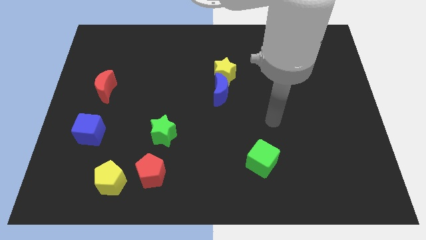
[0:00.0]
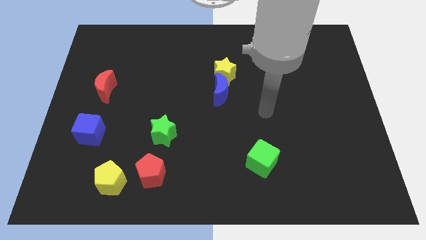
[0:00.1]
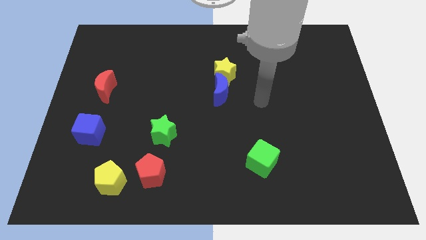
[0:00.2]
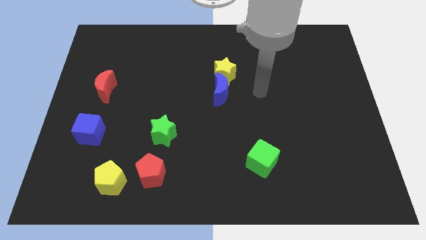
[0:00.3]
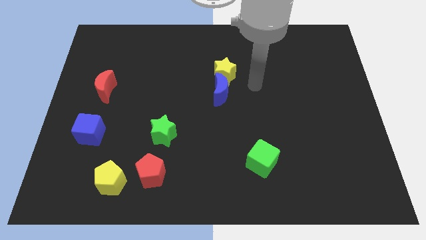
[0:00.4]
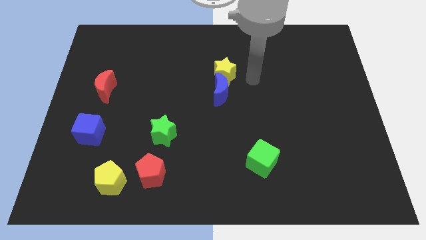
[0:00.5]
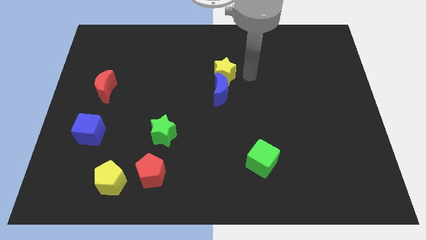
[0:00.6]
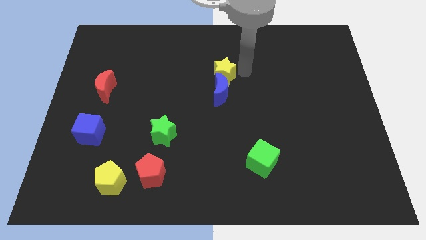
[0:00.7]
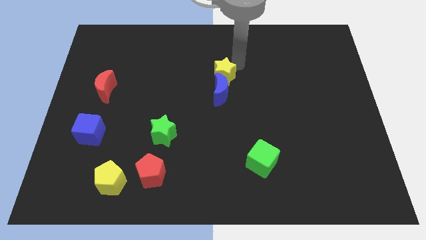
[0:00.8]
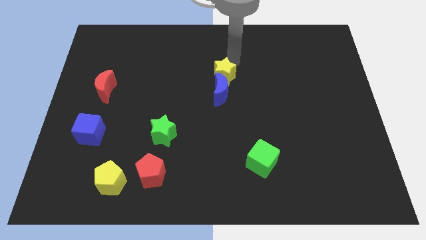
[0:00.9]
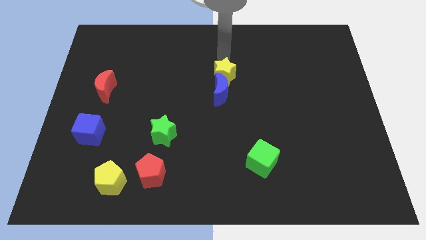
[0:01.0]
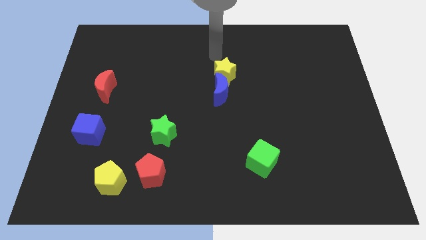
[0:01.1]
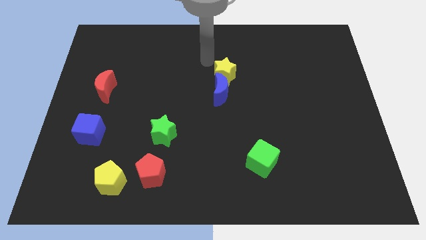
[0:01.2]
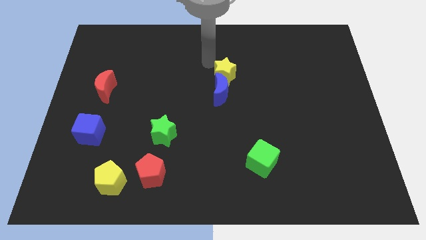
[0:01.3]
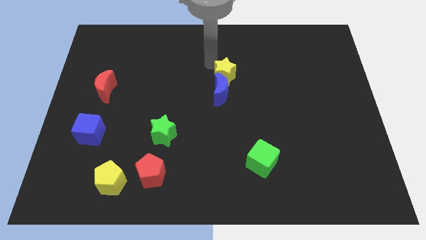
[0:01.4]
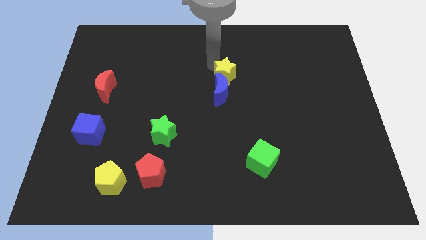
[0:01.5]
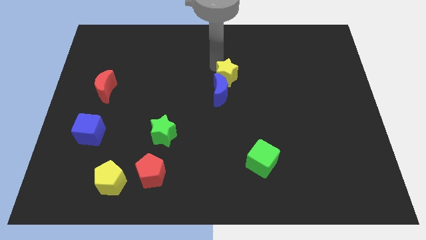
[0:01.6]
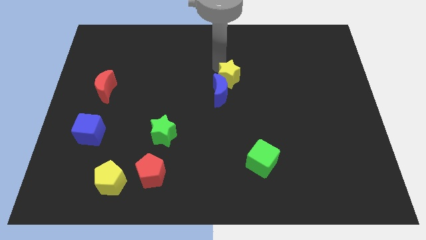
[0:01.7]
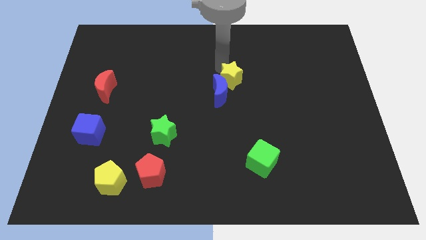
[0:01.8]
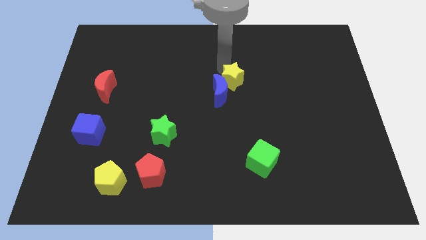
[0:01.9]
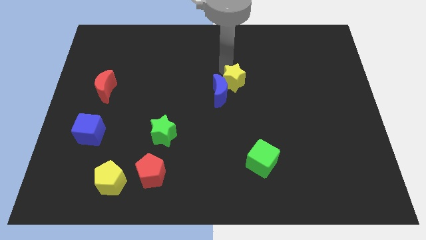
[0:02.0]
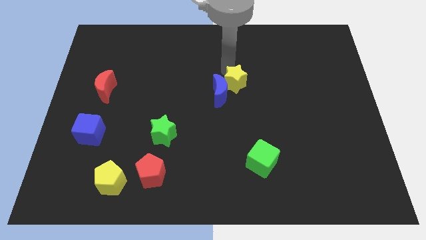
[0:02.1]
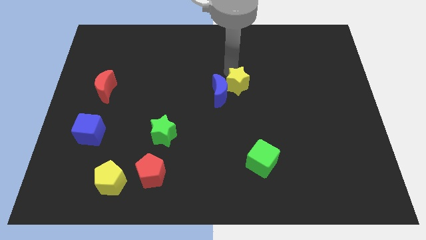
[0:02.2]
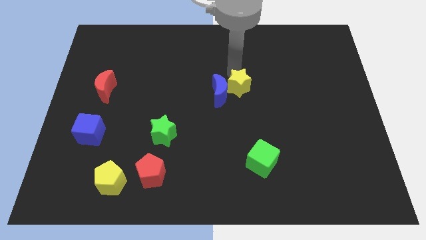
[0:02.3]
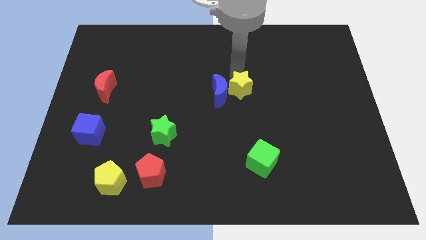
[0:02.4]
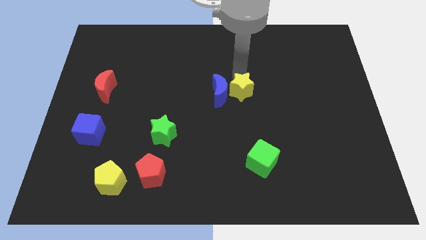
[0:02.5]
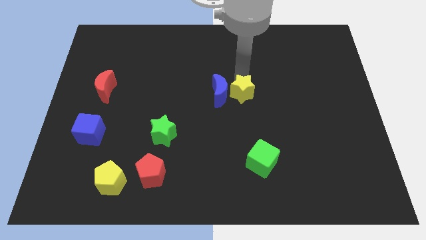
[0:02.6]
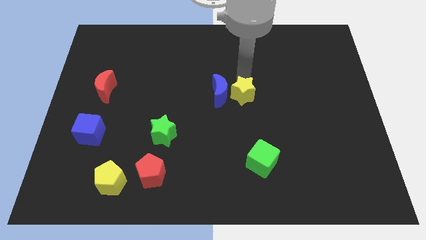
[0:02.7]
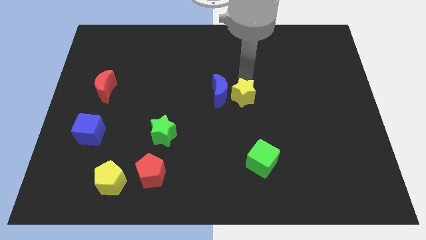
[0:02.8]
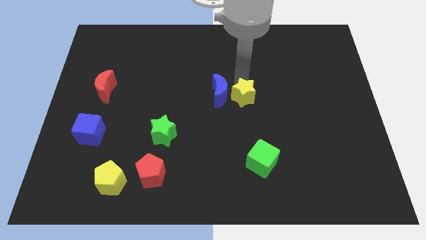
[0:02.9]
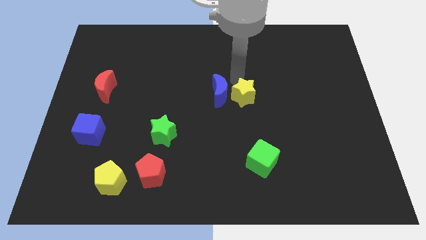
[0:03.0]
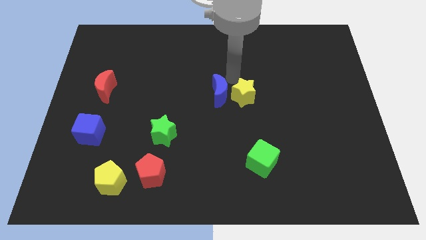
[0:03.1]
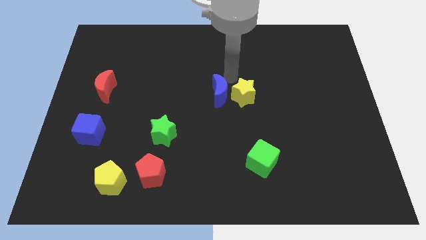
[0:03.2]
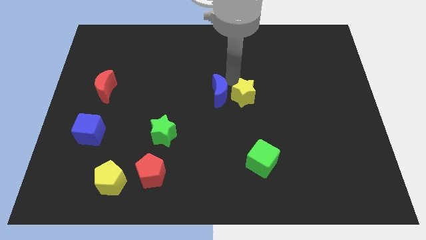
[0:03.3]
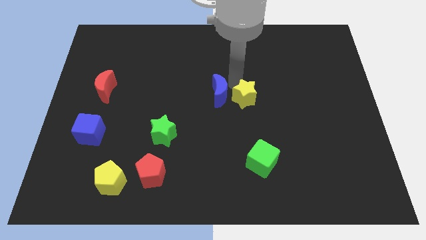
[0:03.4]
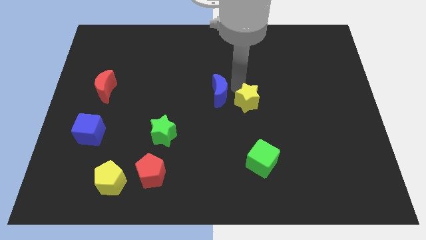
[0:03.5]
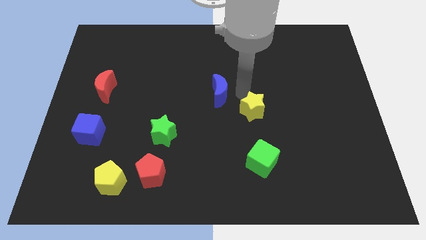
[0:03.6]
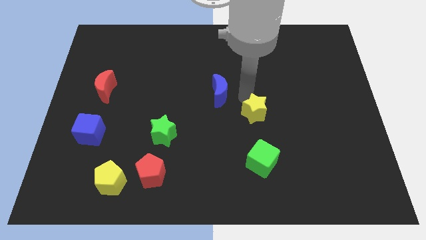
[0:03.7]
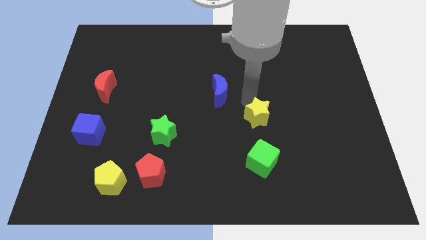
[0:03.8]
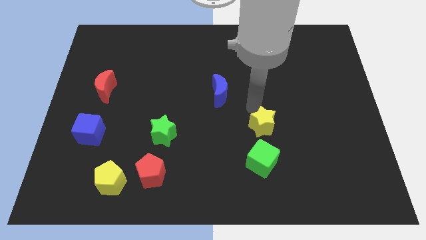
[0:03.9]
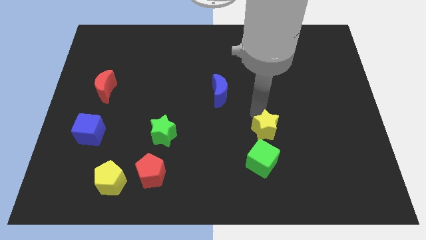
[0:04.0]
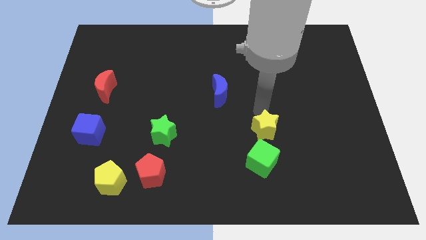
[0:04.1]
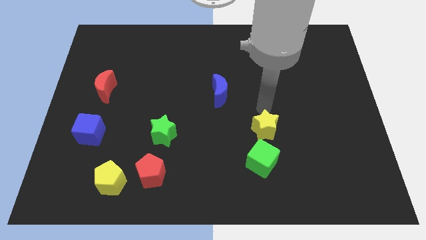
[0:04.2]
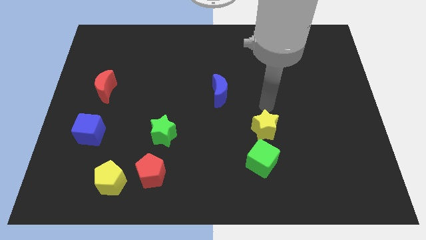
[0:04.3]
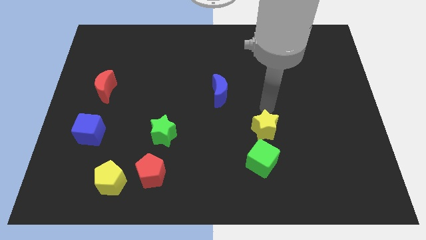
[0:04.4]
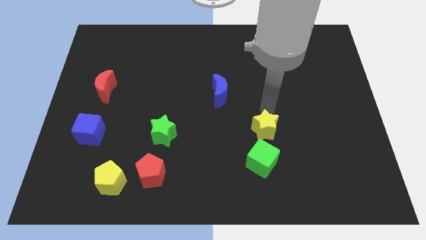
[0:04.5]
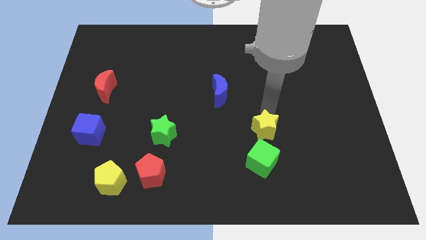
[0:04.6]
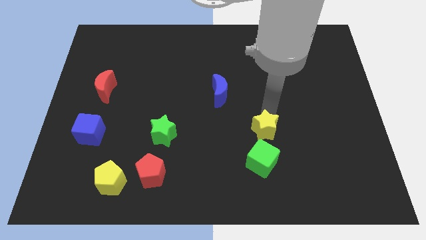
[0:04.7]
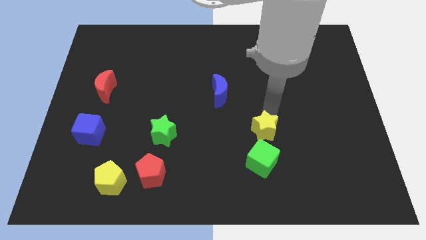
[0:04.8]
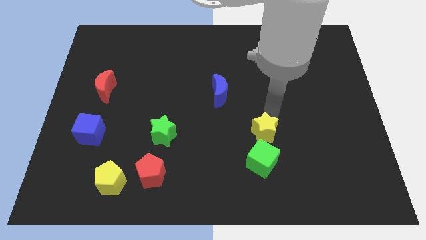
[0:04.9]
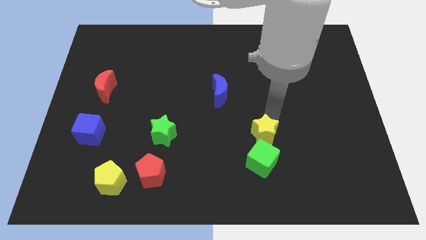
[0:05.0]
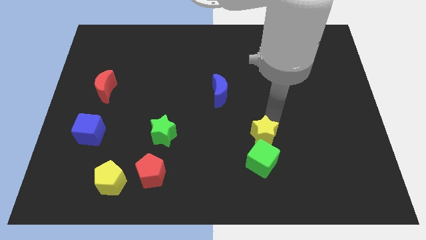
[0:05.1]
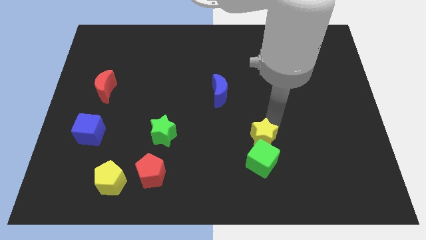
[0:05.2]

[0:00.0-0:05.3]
push the yellow star next to the green cube

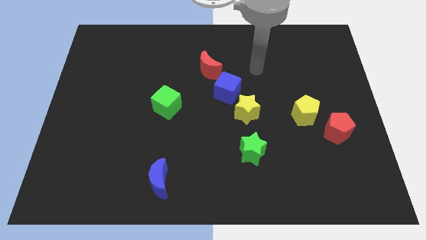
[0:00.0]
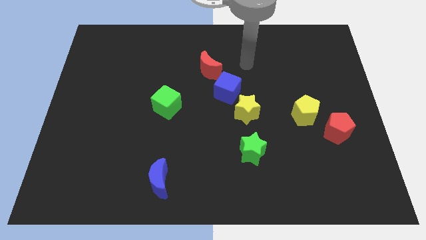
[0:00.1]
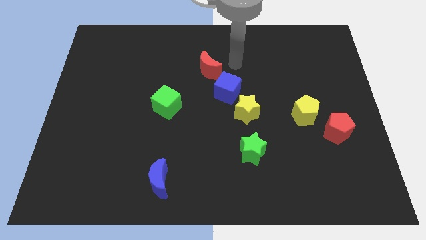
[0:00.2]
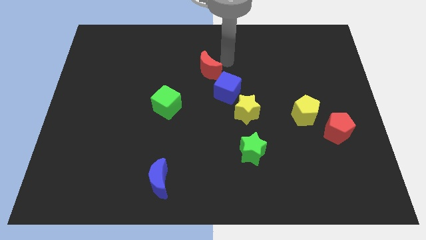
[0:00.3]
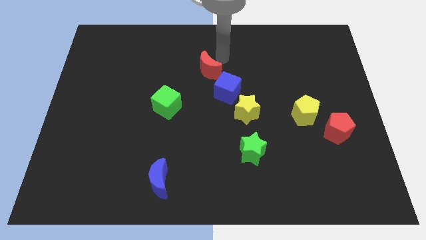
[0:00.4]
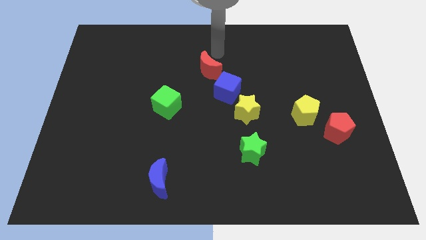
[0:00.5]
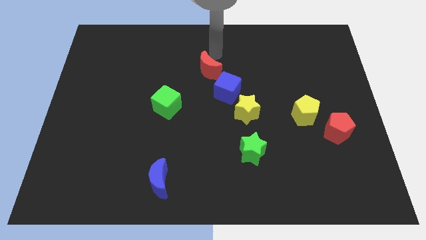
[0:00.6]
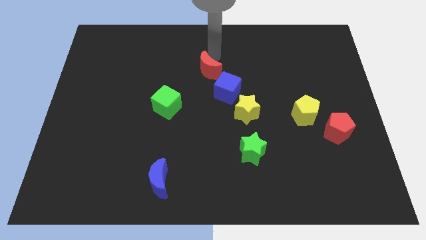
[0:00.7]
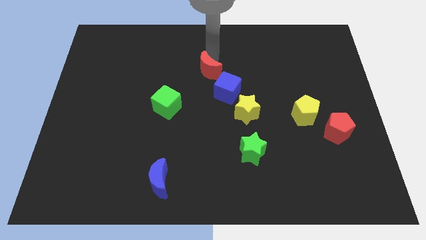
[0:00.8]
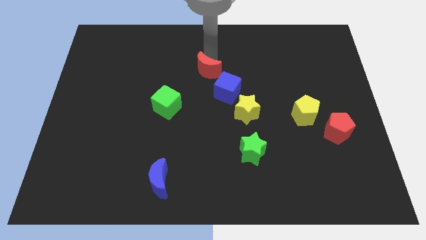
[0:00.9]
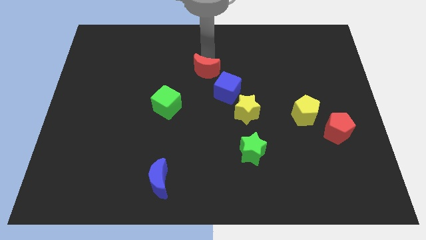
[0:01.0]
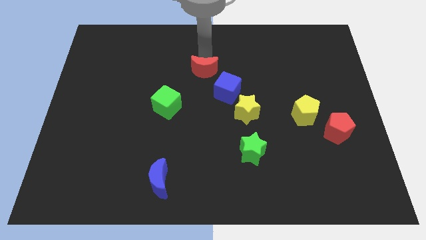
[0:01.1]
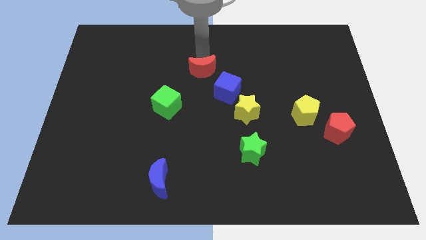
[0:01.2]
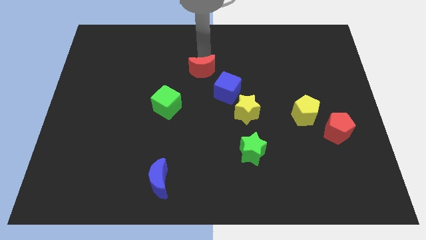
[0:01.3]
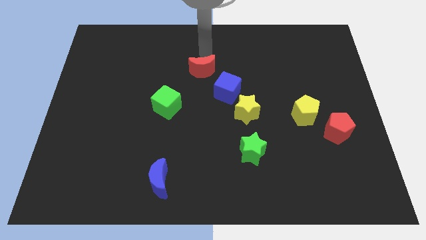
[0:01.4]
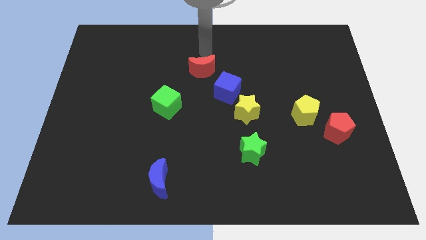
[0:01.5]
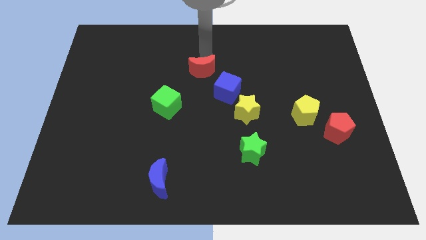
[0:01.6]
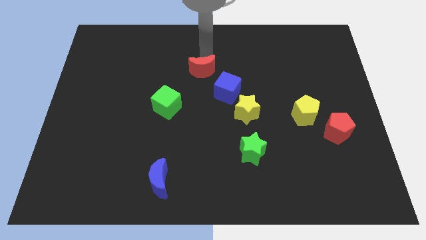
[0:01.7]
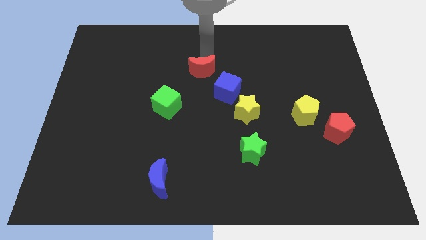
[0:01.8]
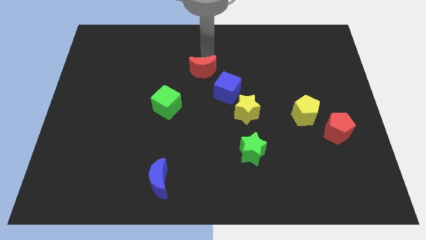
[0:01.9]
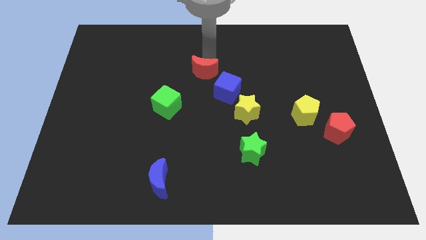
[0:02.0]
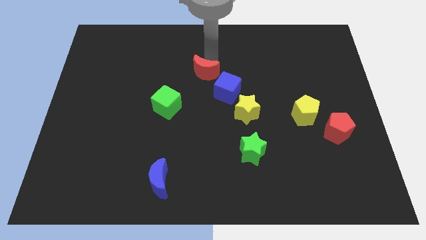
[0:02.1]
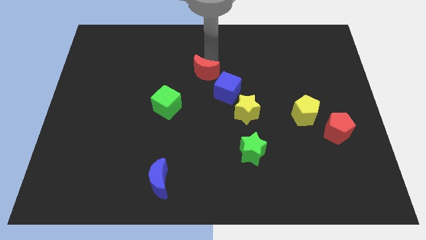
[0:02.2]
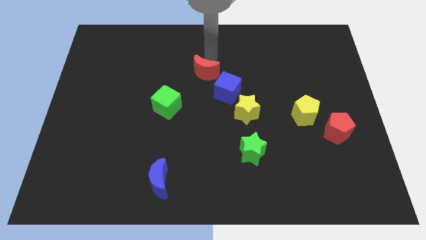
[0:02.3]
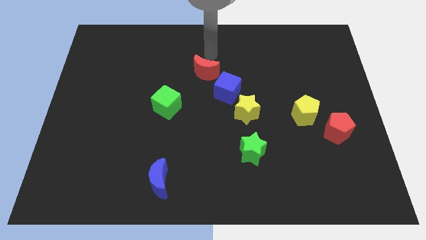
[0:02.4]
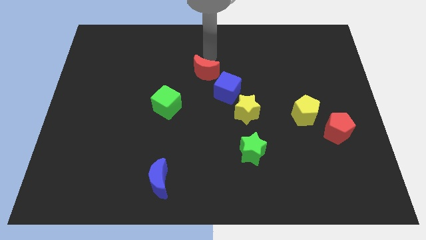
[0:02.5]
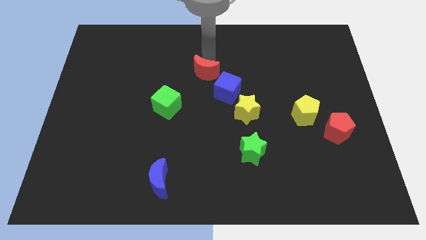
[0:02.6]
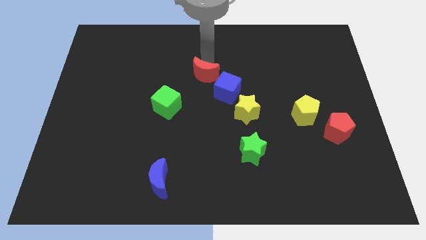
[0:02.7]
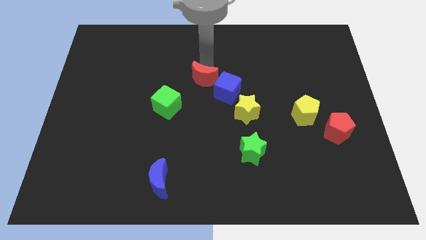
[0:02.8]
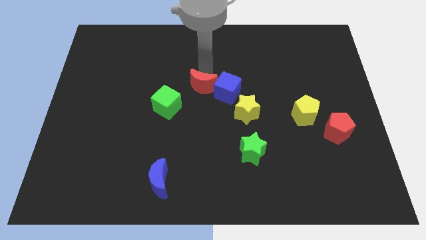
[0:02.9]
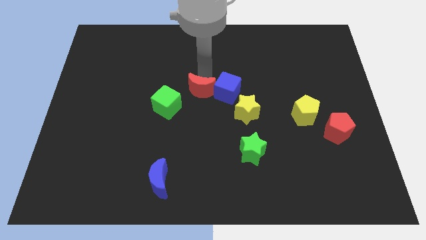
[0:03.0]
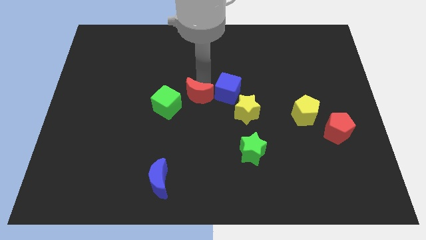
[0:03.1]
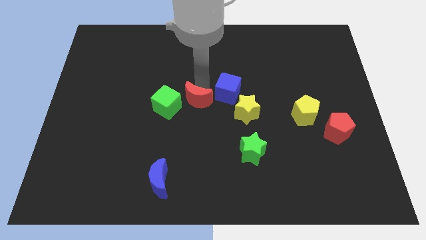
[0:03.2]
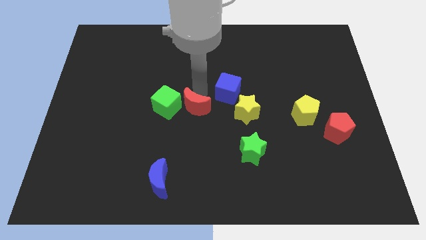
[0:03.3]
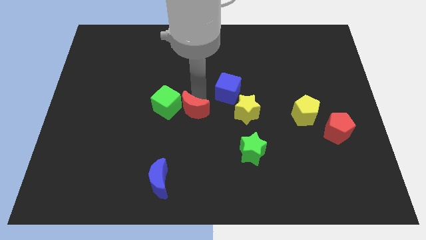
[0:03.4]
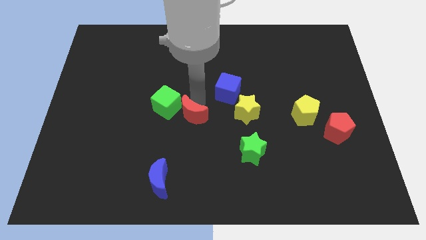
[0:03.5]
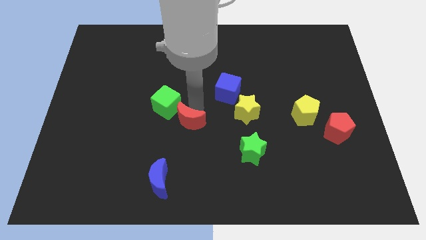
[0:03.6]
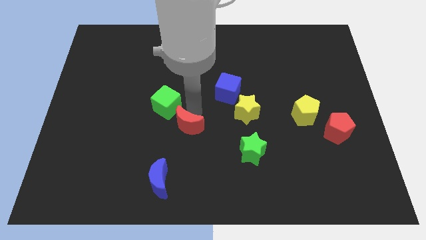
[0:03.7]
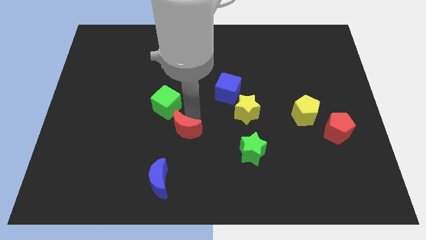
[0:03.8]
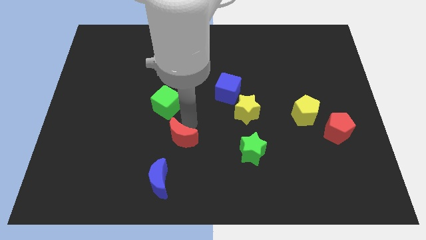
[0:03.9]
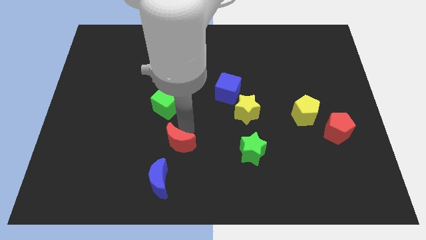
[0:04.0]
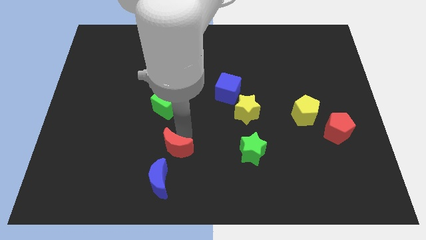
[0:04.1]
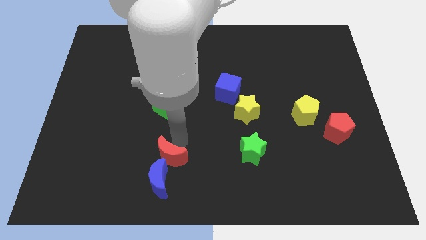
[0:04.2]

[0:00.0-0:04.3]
push the red moon towards the blue moon
